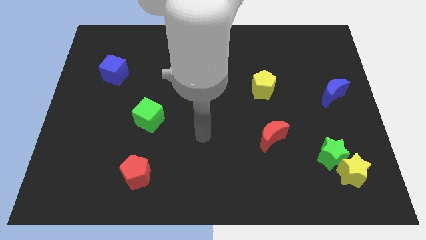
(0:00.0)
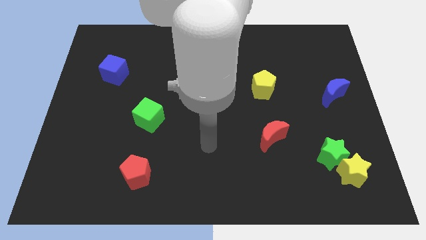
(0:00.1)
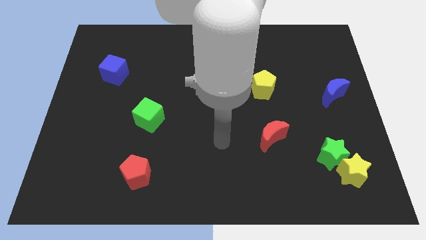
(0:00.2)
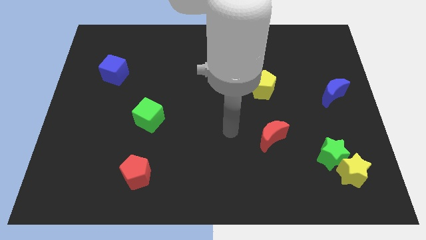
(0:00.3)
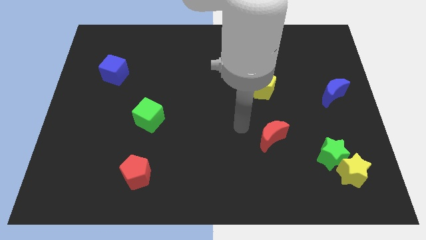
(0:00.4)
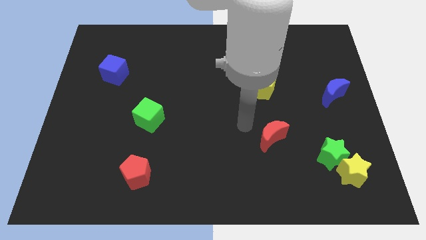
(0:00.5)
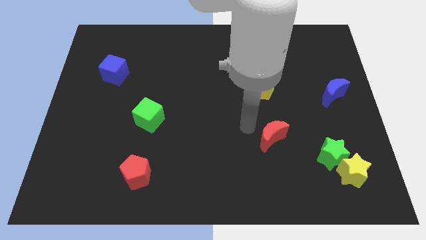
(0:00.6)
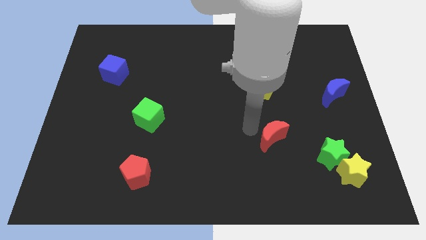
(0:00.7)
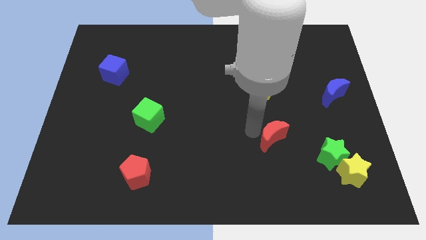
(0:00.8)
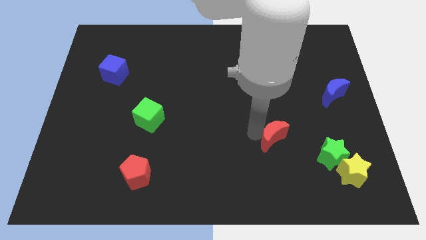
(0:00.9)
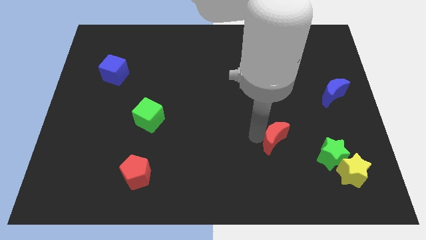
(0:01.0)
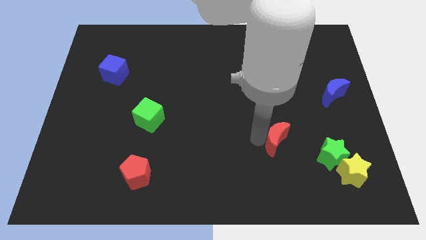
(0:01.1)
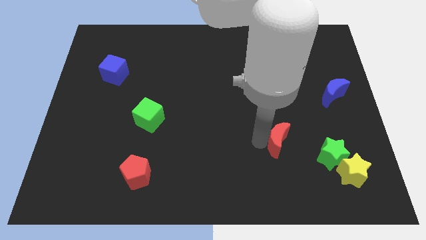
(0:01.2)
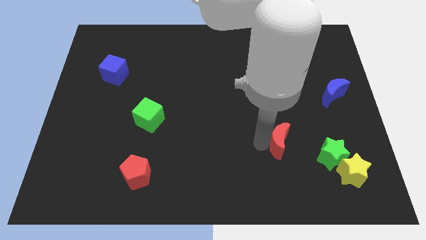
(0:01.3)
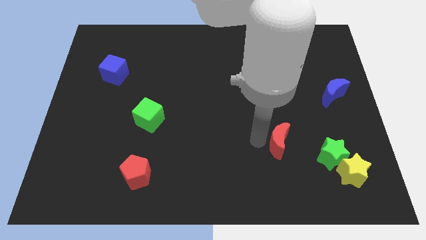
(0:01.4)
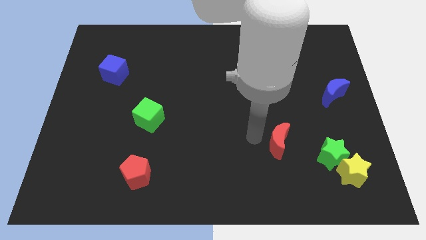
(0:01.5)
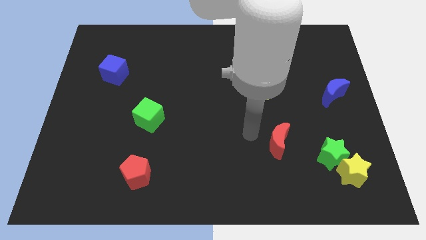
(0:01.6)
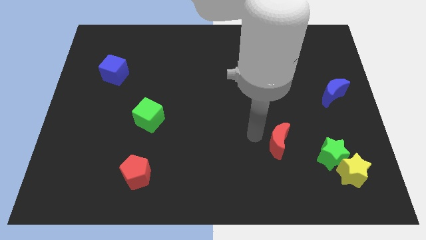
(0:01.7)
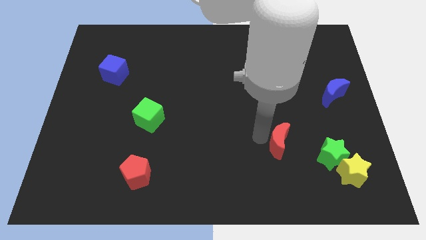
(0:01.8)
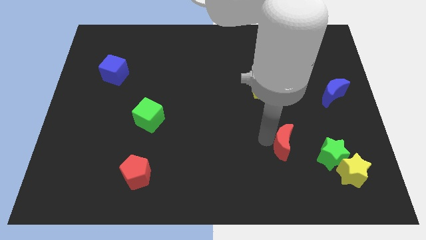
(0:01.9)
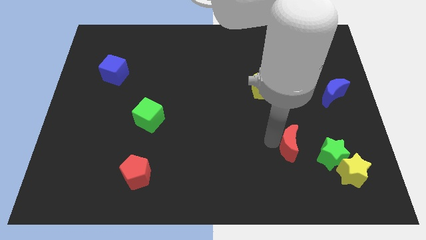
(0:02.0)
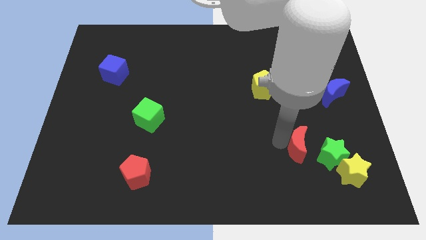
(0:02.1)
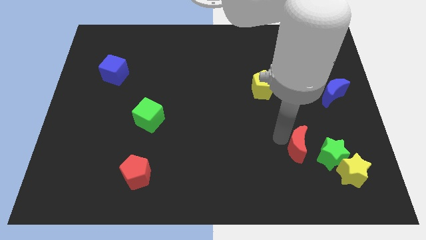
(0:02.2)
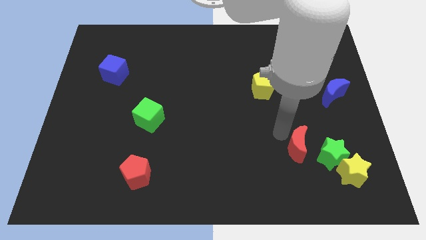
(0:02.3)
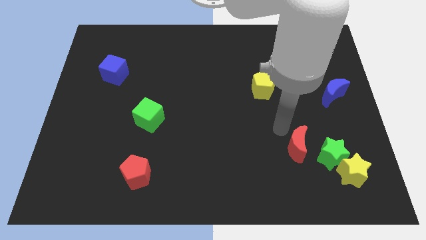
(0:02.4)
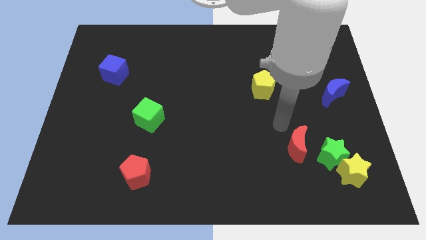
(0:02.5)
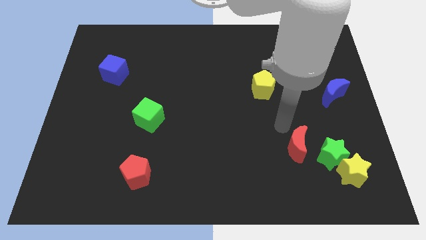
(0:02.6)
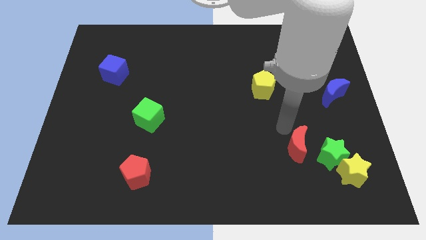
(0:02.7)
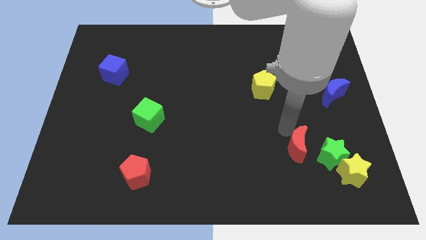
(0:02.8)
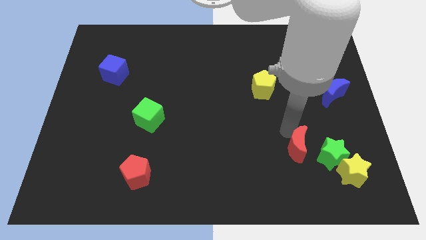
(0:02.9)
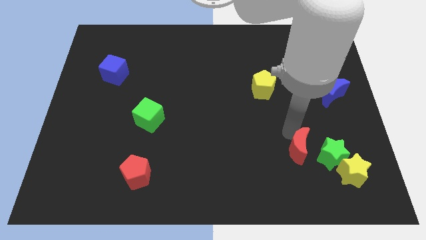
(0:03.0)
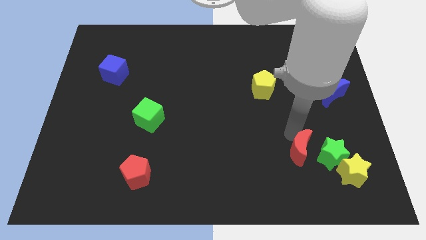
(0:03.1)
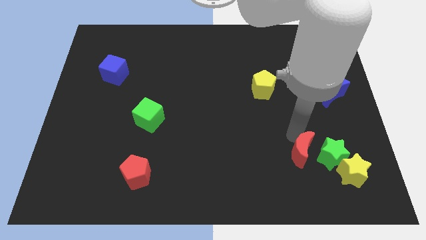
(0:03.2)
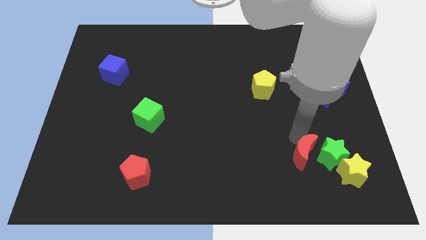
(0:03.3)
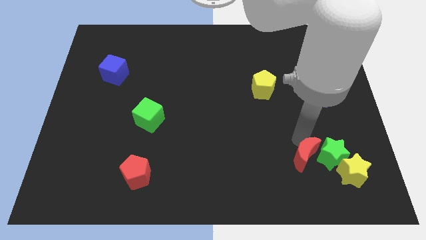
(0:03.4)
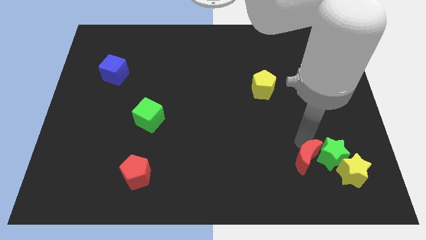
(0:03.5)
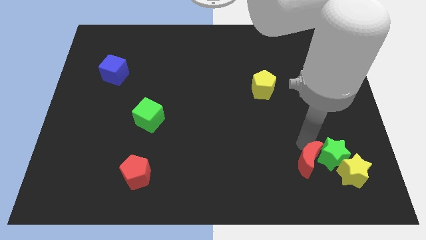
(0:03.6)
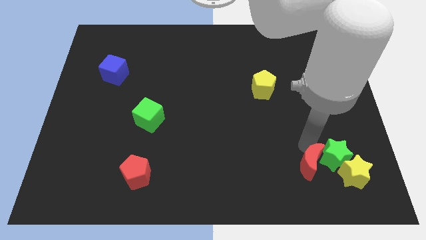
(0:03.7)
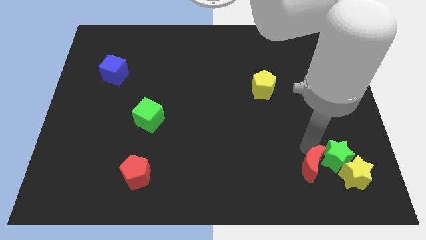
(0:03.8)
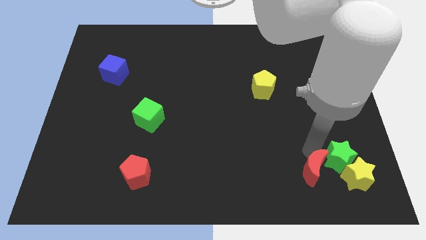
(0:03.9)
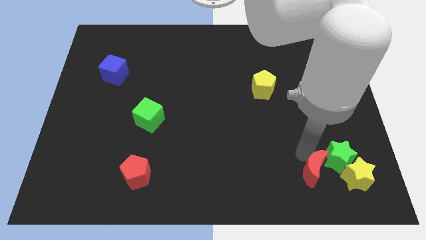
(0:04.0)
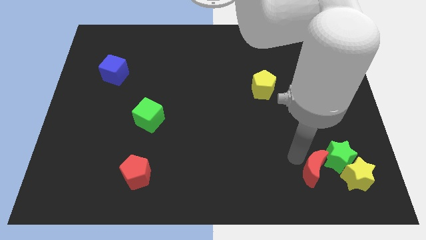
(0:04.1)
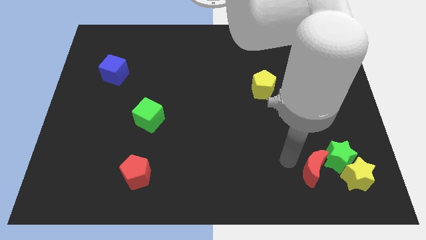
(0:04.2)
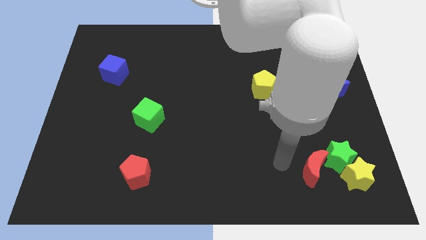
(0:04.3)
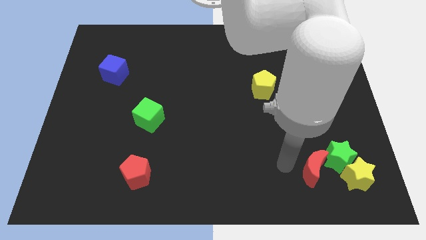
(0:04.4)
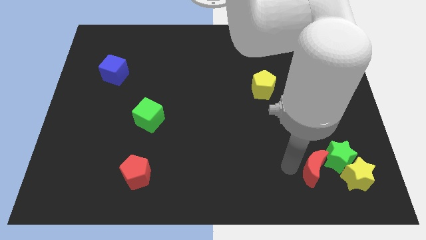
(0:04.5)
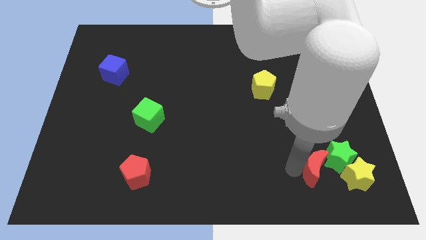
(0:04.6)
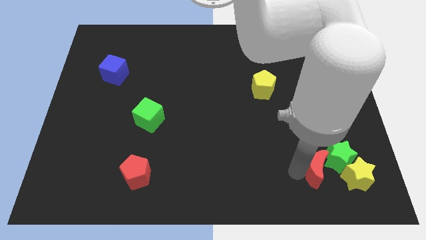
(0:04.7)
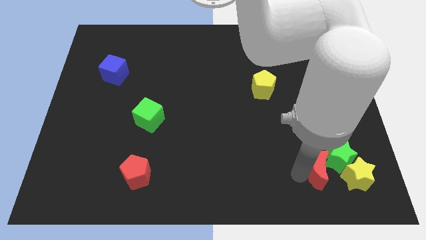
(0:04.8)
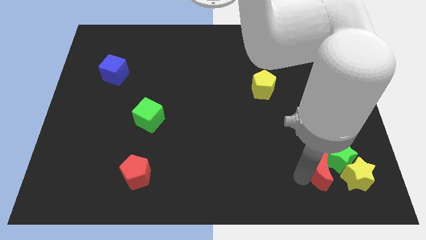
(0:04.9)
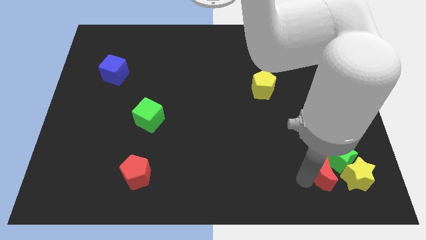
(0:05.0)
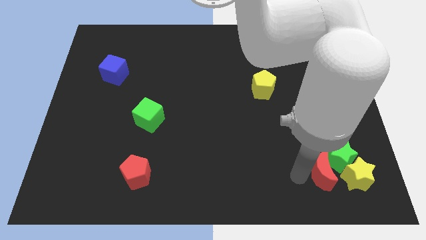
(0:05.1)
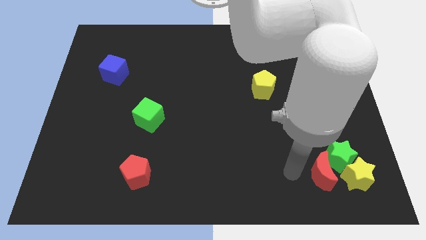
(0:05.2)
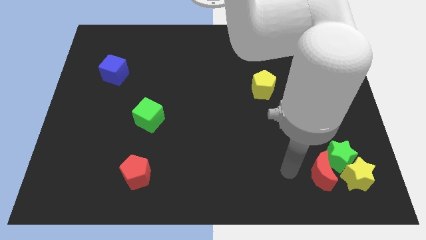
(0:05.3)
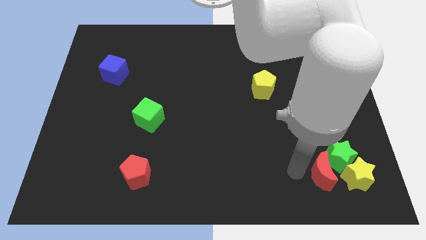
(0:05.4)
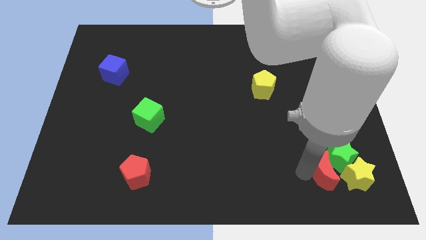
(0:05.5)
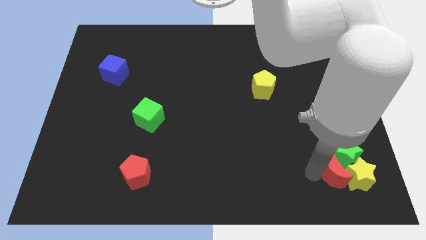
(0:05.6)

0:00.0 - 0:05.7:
put the red moon to the yellow star

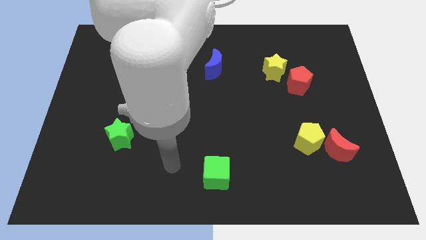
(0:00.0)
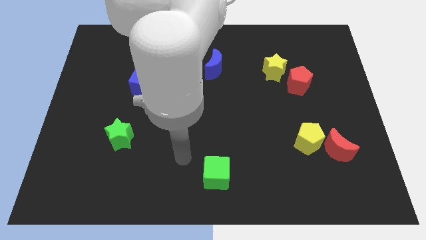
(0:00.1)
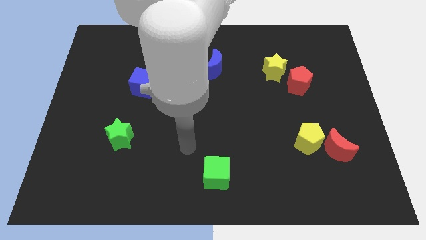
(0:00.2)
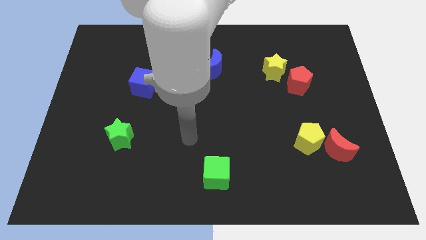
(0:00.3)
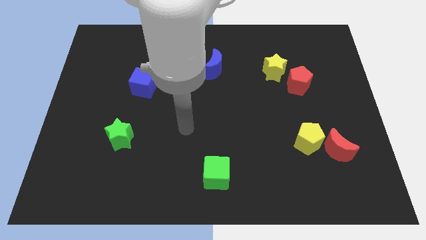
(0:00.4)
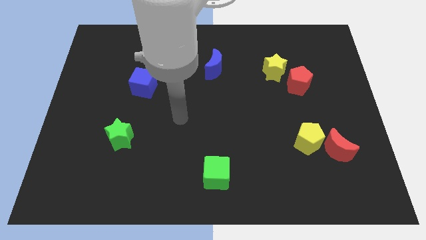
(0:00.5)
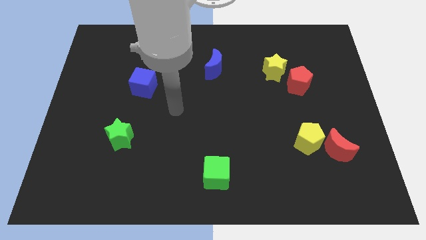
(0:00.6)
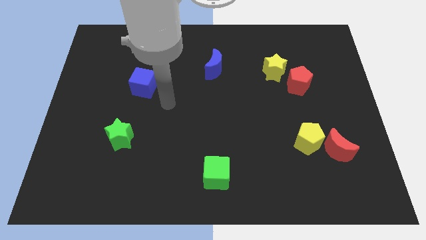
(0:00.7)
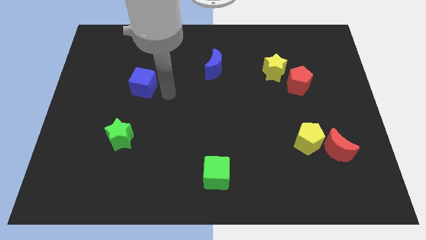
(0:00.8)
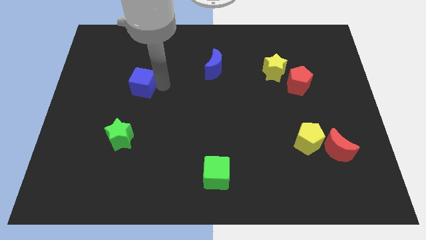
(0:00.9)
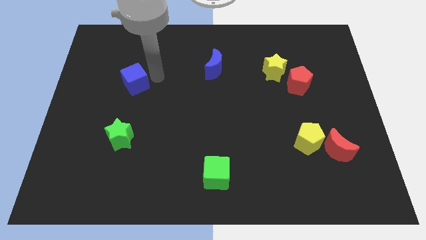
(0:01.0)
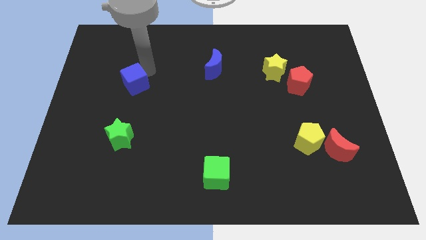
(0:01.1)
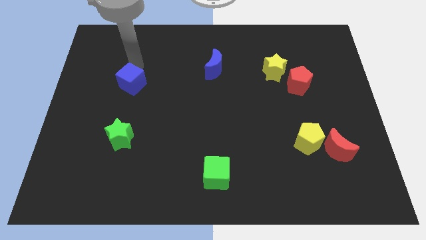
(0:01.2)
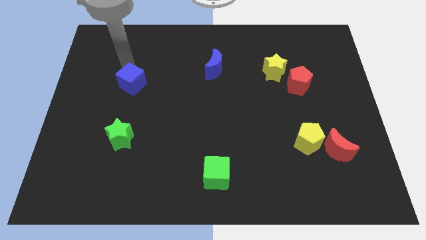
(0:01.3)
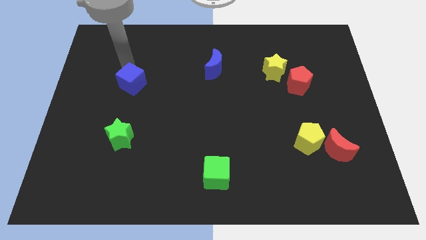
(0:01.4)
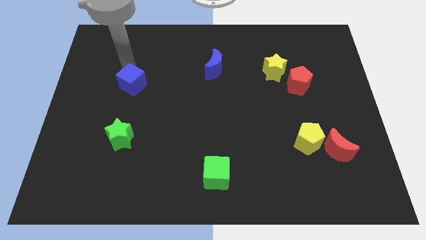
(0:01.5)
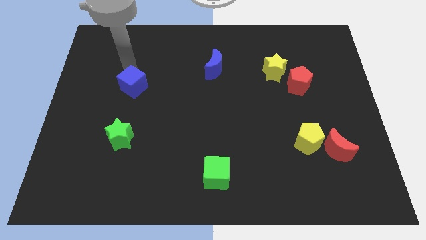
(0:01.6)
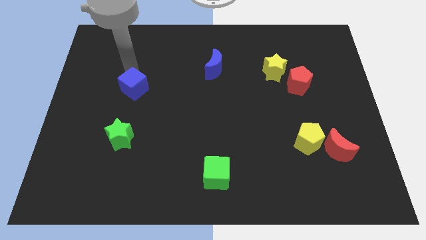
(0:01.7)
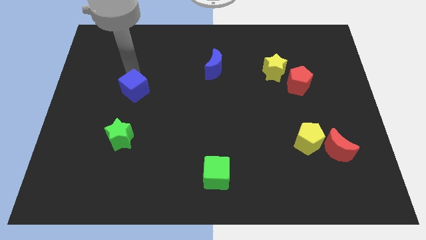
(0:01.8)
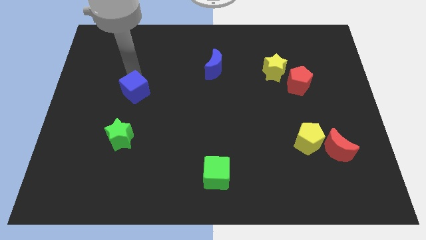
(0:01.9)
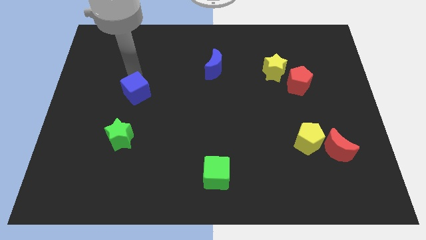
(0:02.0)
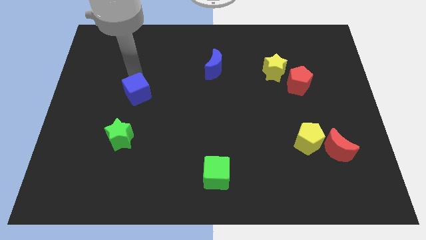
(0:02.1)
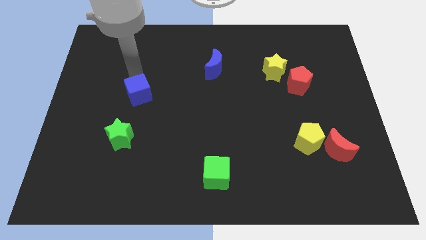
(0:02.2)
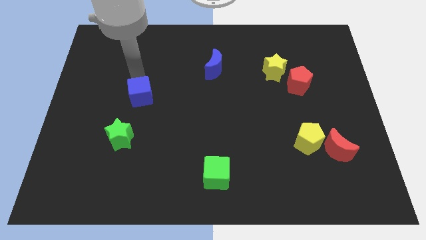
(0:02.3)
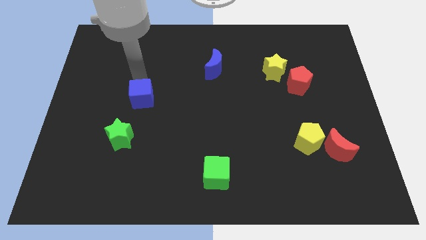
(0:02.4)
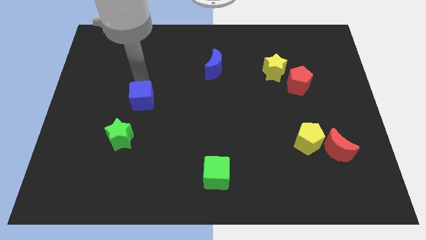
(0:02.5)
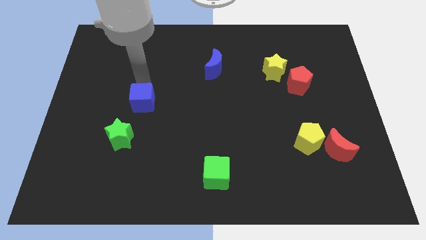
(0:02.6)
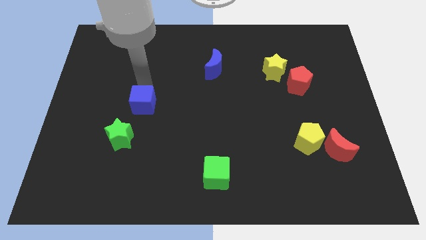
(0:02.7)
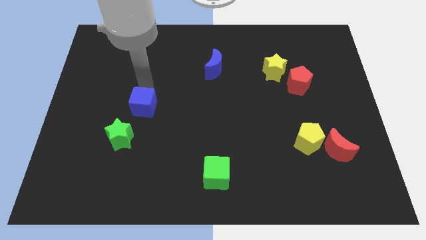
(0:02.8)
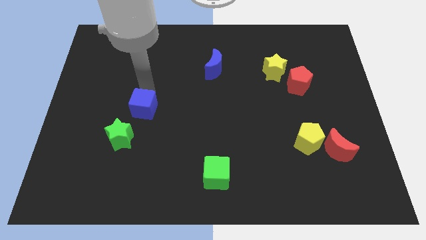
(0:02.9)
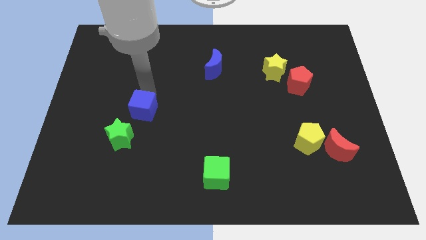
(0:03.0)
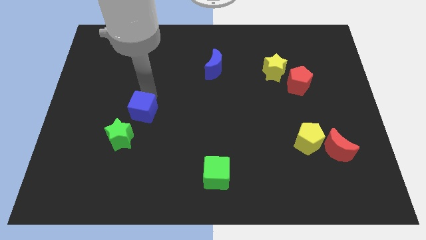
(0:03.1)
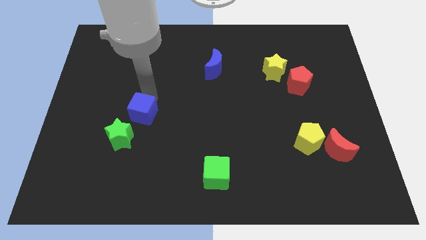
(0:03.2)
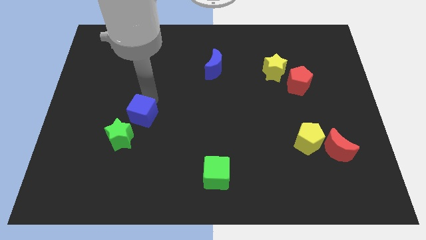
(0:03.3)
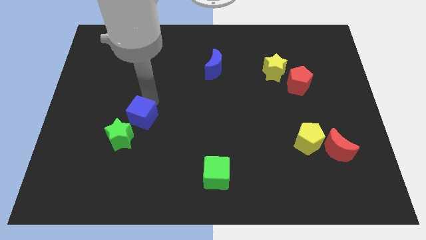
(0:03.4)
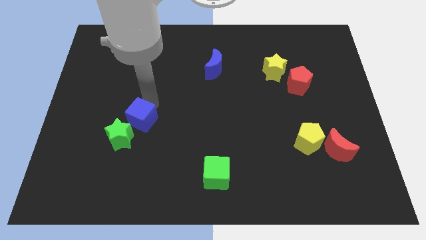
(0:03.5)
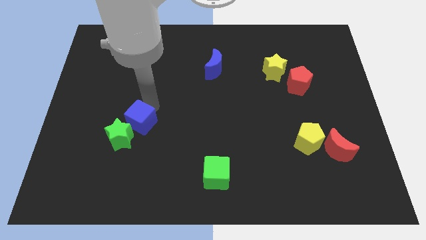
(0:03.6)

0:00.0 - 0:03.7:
slide the blue cube next to the green star
